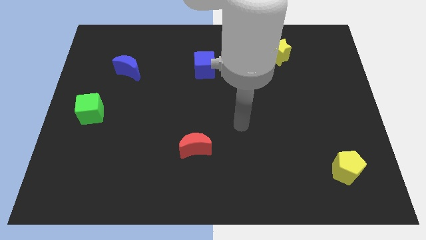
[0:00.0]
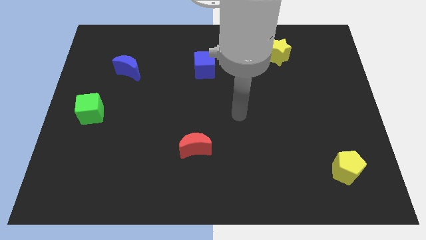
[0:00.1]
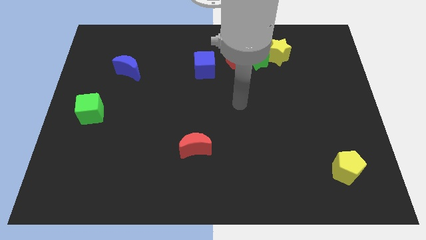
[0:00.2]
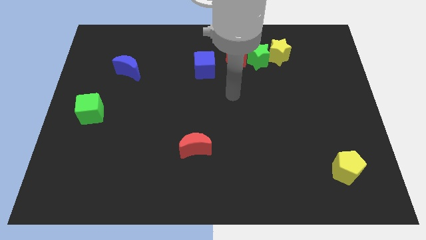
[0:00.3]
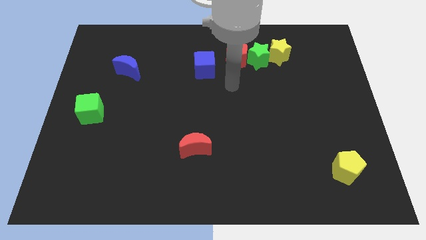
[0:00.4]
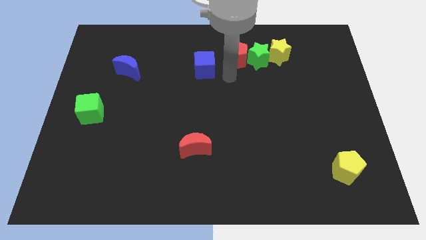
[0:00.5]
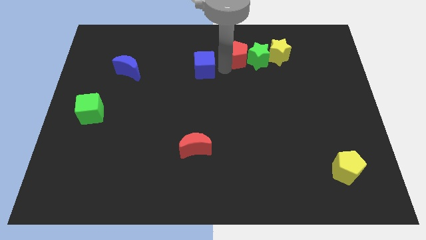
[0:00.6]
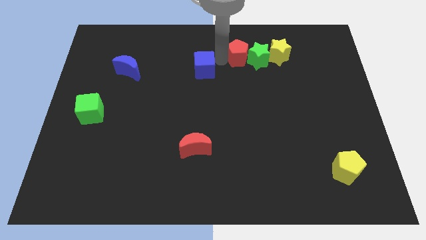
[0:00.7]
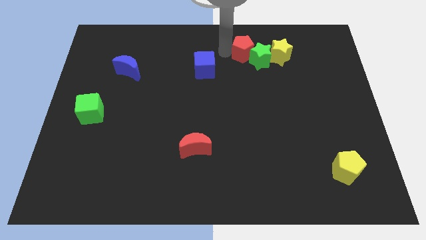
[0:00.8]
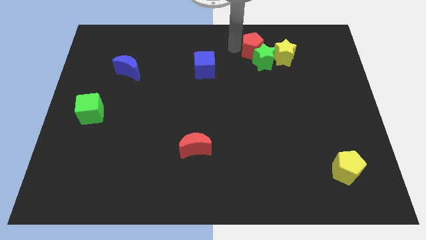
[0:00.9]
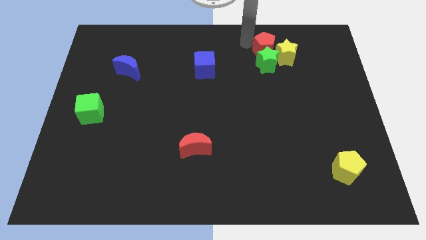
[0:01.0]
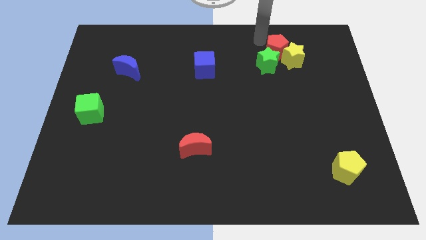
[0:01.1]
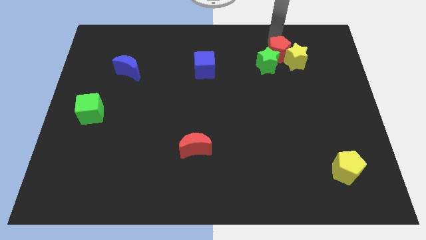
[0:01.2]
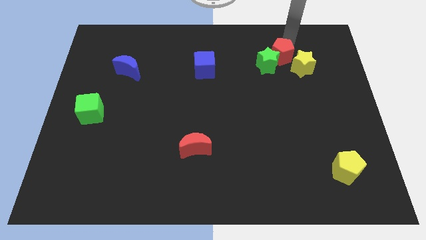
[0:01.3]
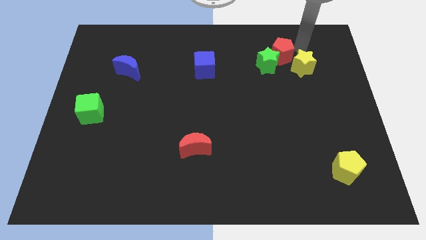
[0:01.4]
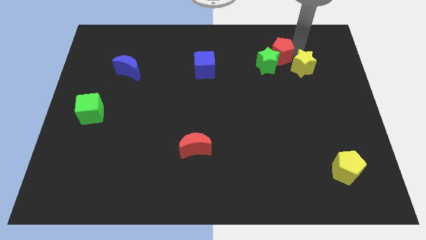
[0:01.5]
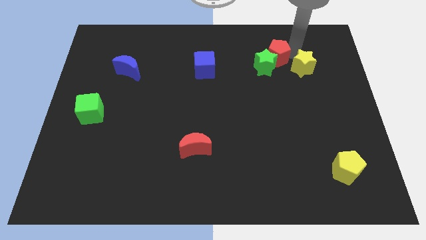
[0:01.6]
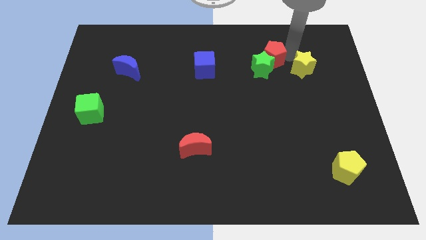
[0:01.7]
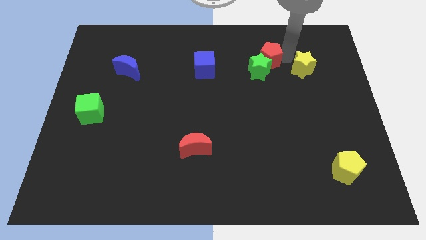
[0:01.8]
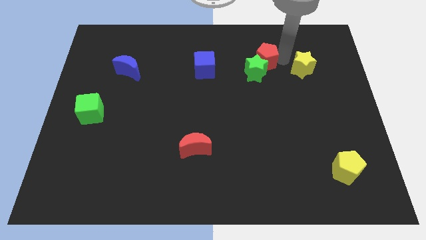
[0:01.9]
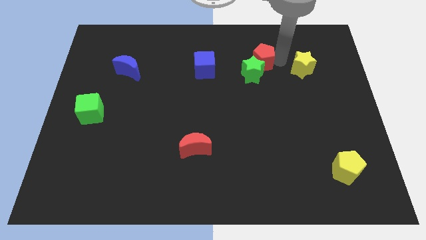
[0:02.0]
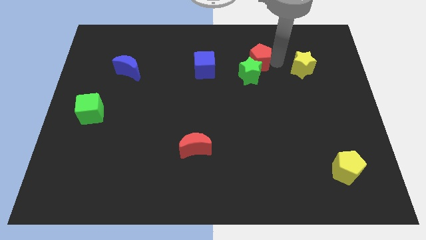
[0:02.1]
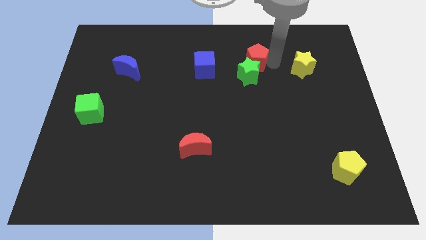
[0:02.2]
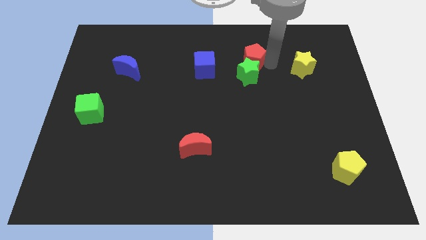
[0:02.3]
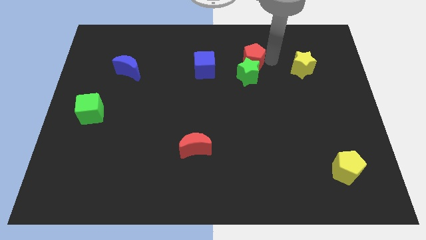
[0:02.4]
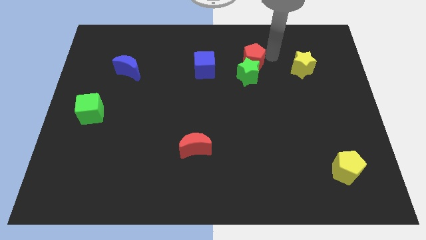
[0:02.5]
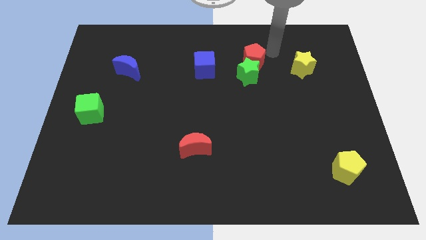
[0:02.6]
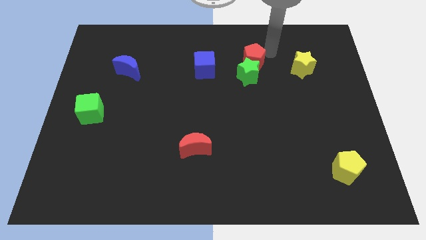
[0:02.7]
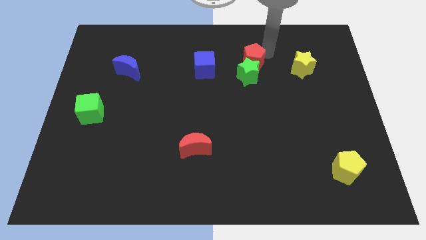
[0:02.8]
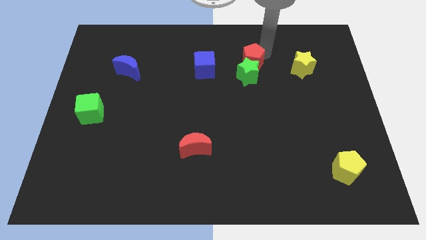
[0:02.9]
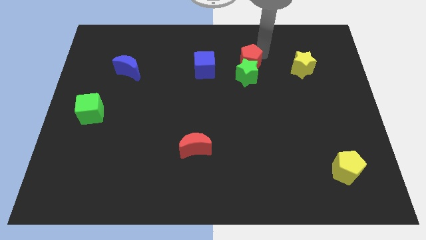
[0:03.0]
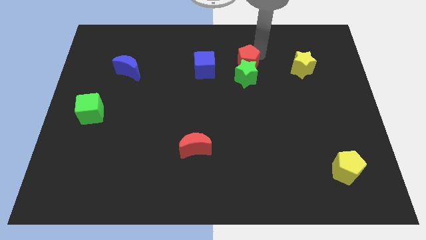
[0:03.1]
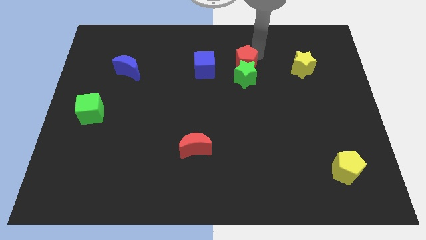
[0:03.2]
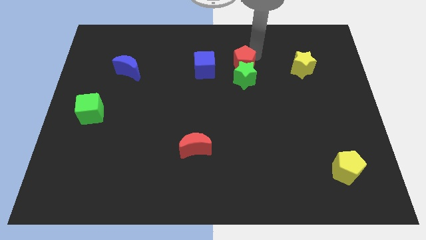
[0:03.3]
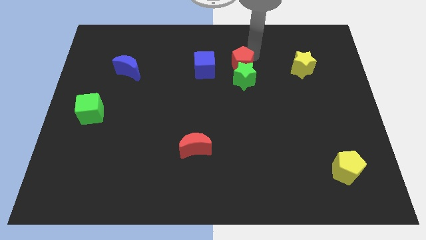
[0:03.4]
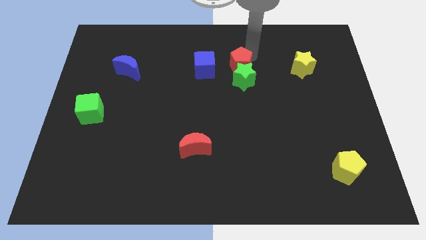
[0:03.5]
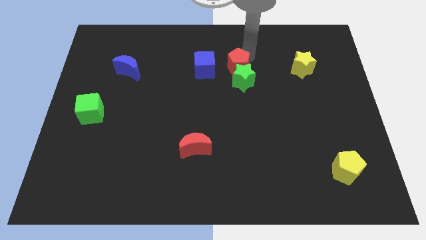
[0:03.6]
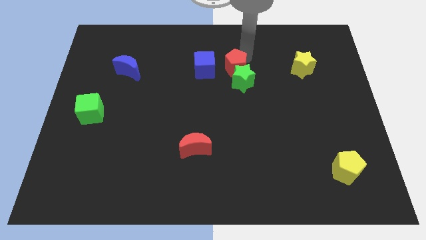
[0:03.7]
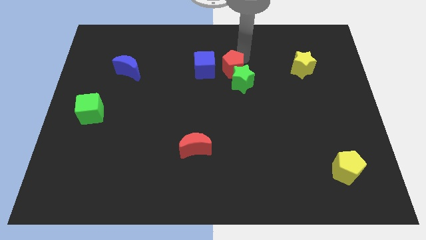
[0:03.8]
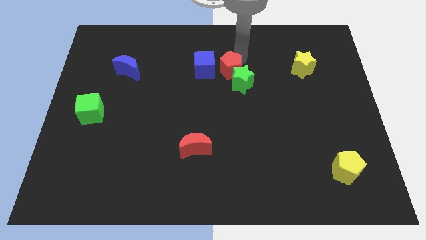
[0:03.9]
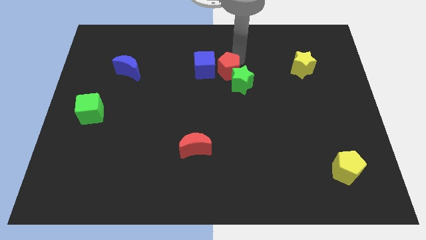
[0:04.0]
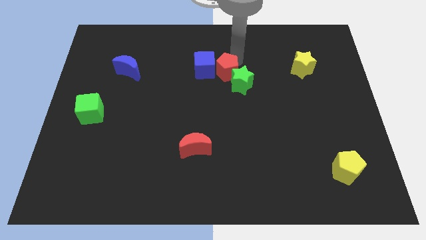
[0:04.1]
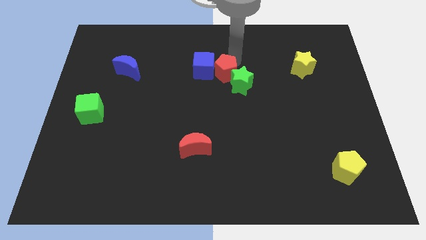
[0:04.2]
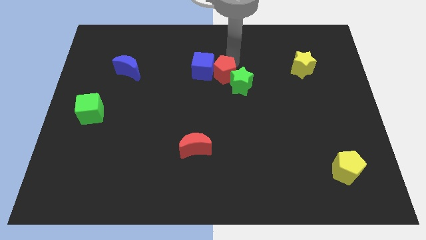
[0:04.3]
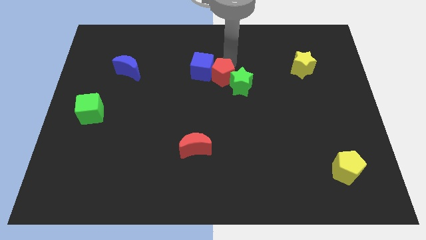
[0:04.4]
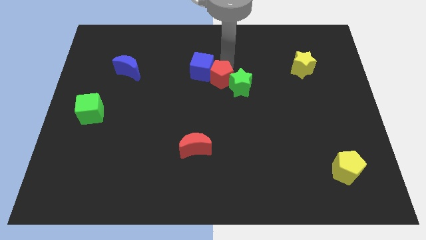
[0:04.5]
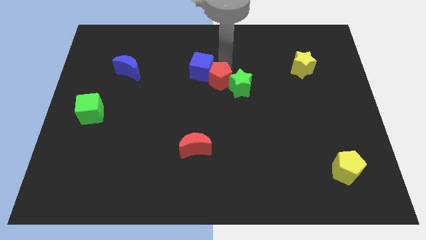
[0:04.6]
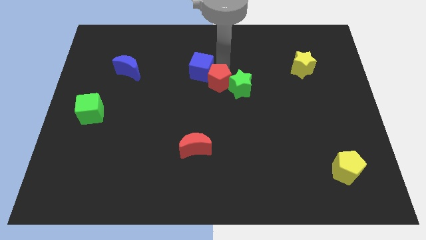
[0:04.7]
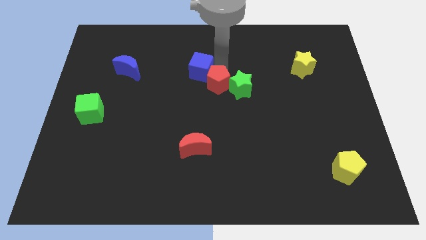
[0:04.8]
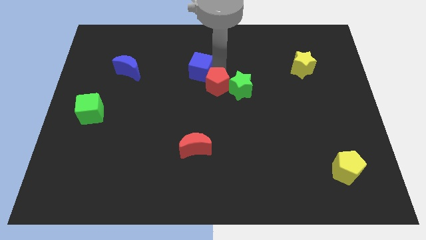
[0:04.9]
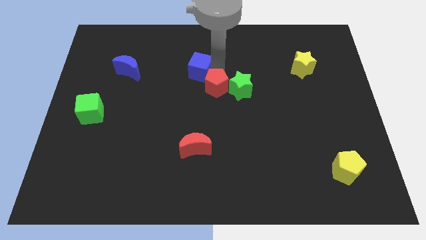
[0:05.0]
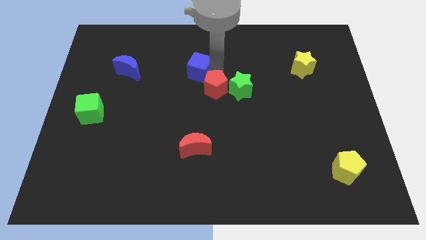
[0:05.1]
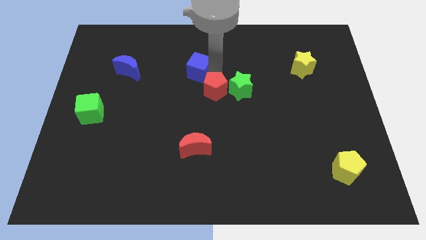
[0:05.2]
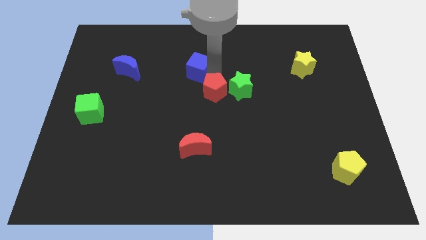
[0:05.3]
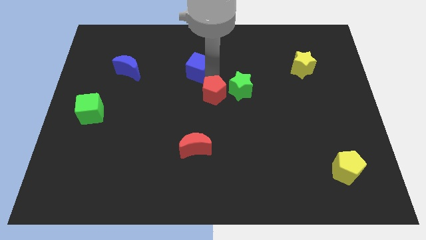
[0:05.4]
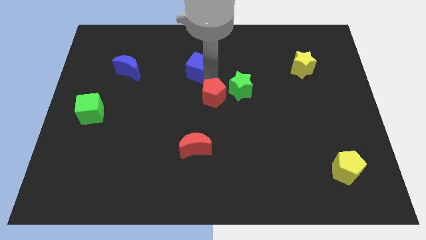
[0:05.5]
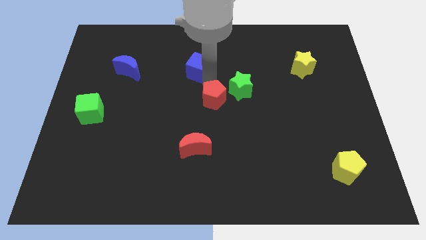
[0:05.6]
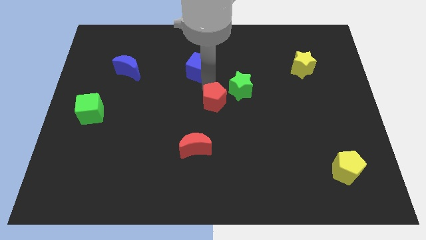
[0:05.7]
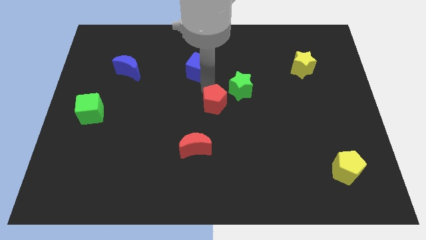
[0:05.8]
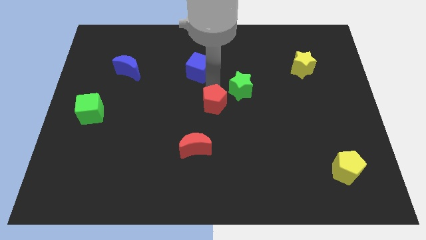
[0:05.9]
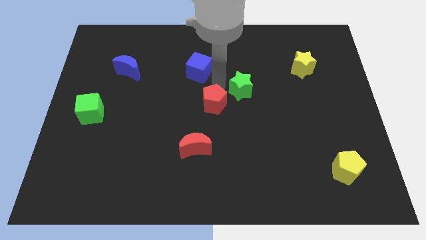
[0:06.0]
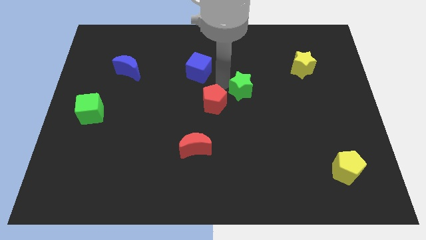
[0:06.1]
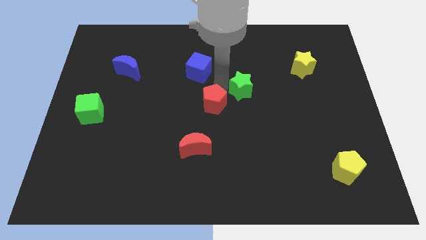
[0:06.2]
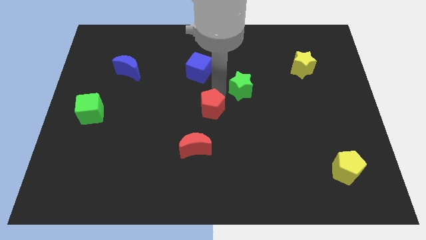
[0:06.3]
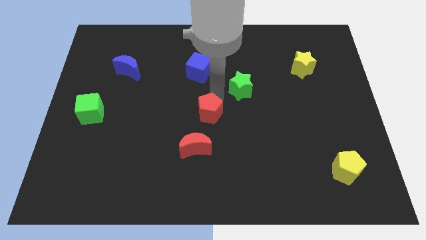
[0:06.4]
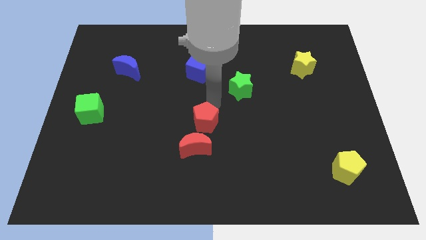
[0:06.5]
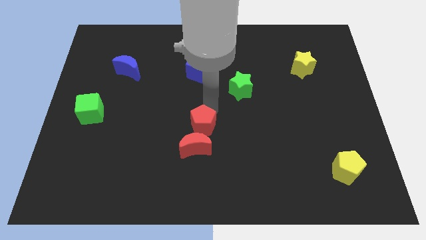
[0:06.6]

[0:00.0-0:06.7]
move the red pentagon towards the red moon

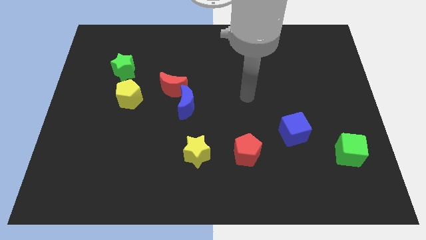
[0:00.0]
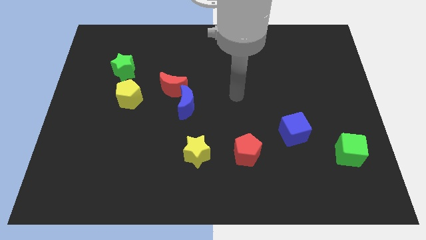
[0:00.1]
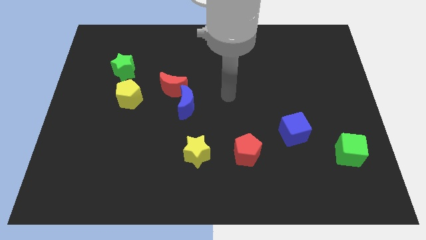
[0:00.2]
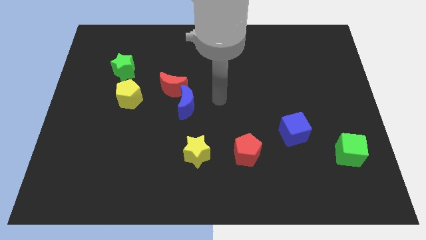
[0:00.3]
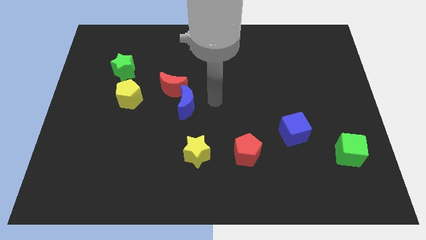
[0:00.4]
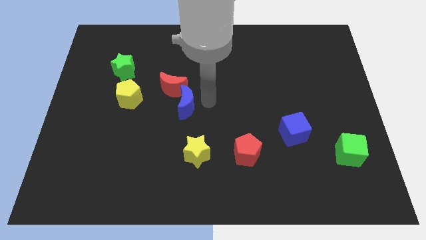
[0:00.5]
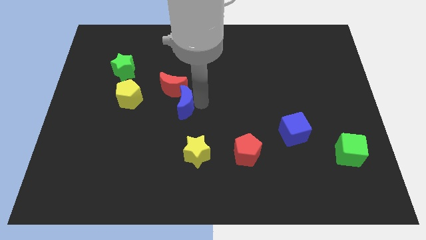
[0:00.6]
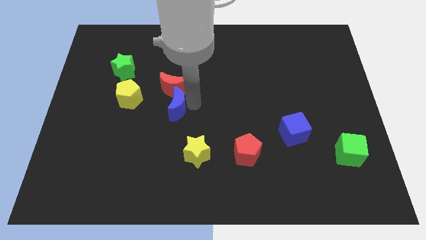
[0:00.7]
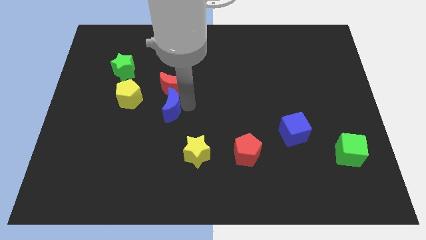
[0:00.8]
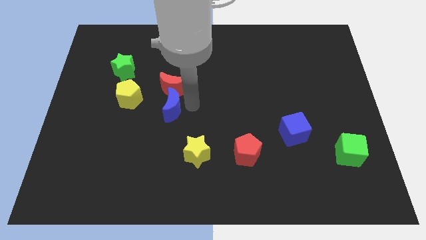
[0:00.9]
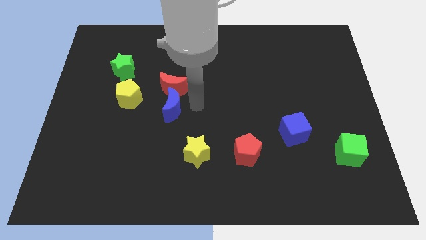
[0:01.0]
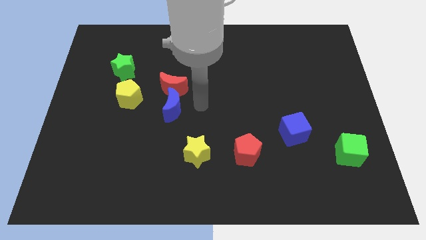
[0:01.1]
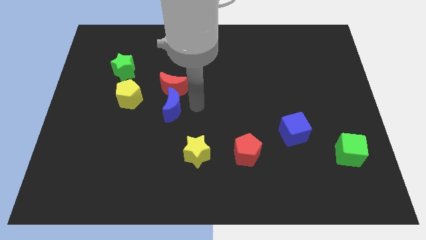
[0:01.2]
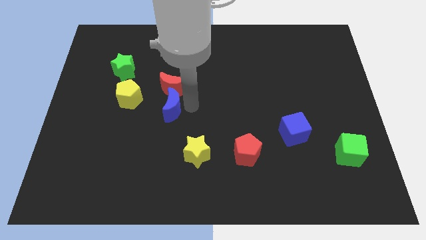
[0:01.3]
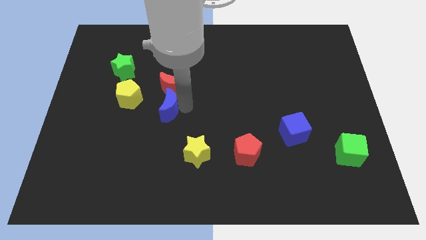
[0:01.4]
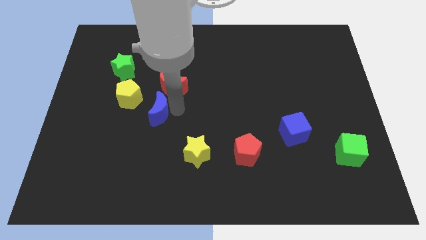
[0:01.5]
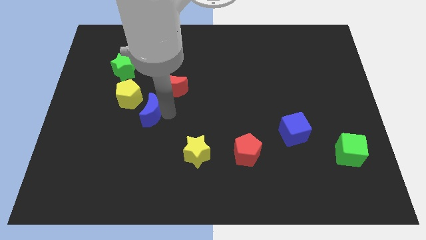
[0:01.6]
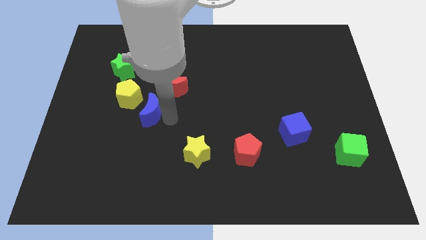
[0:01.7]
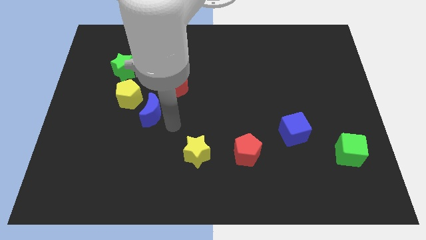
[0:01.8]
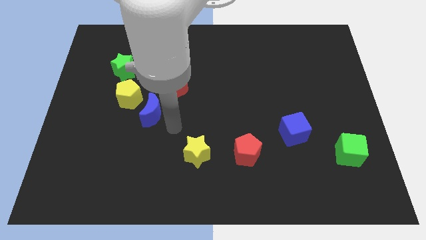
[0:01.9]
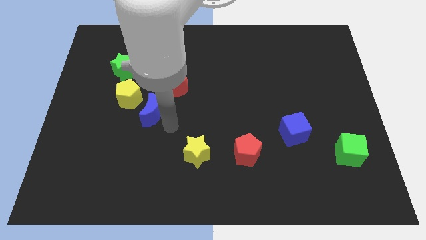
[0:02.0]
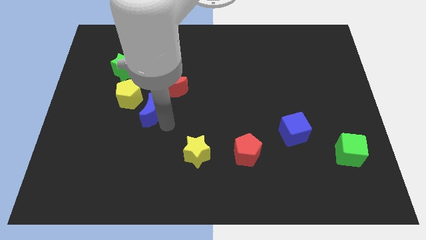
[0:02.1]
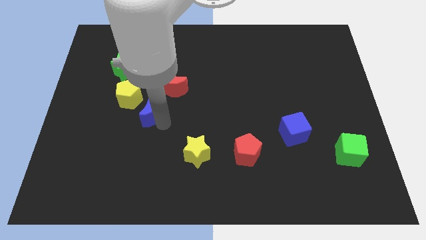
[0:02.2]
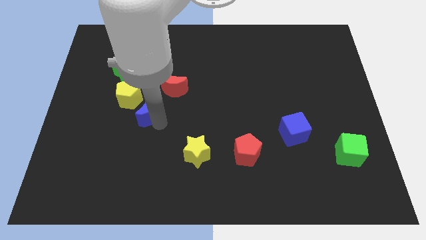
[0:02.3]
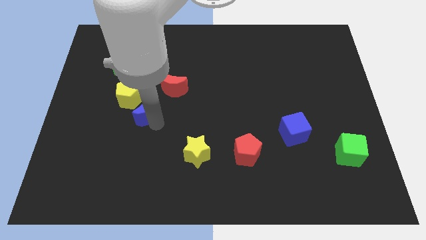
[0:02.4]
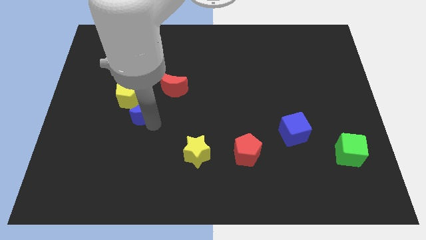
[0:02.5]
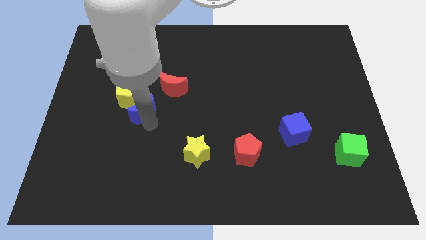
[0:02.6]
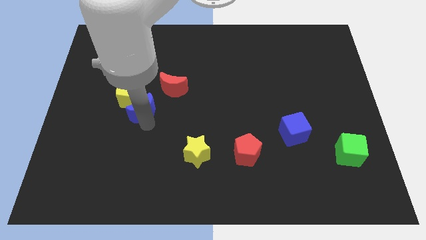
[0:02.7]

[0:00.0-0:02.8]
push the blue moon next to the yellow pentagon
